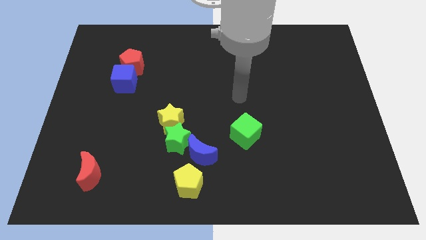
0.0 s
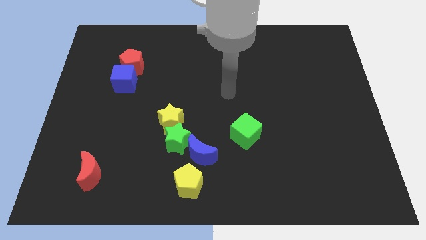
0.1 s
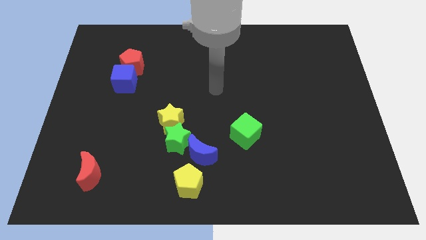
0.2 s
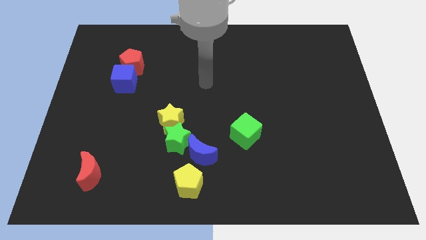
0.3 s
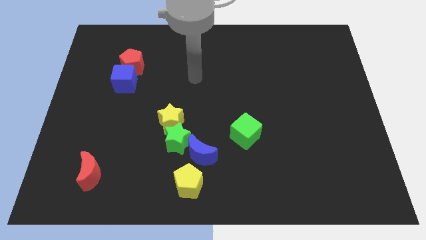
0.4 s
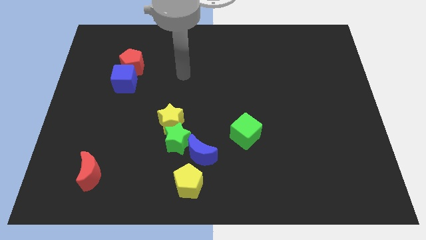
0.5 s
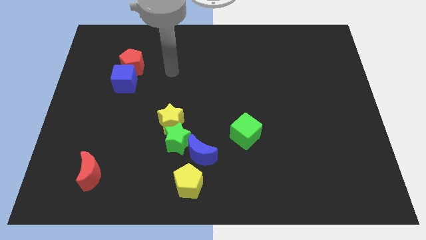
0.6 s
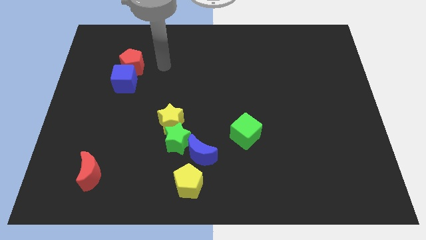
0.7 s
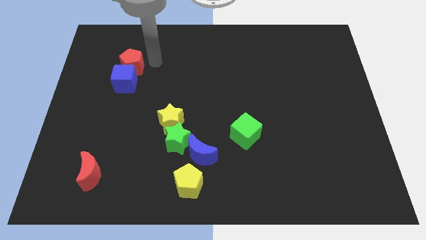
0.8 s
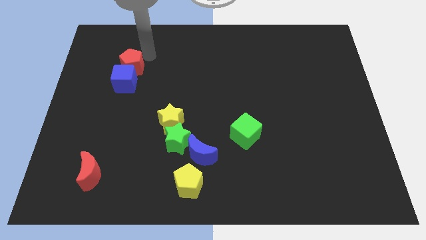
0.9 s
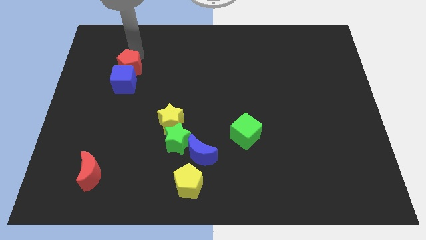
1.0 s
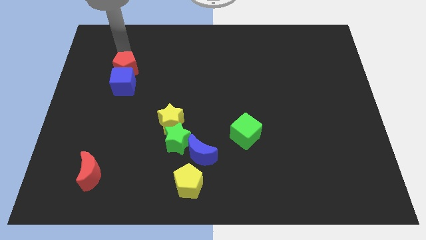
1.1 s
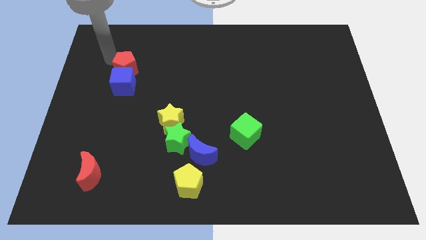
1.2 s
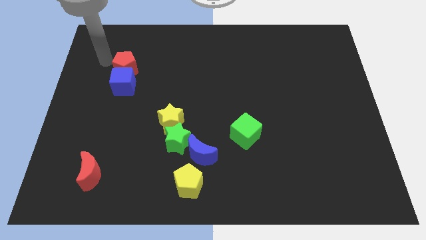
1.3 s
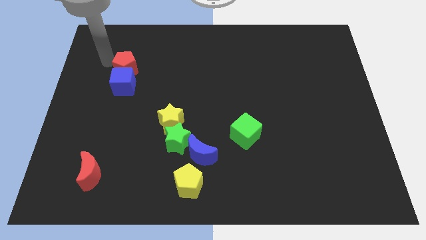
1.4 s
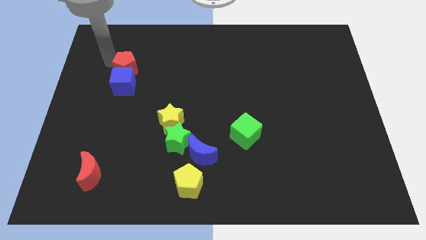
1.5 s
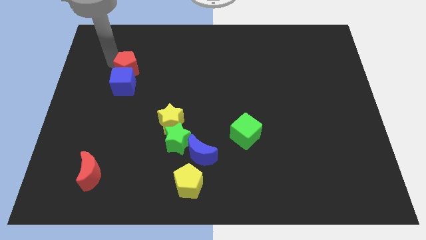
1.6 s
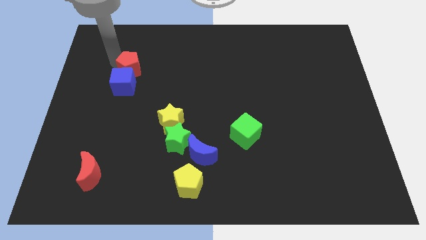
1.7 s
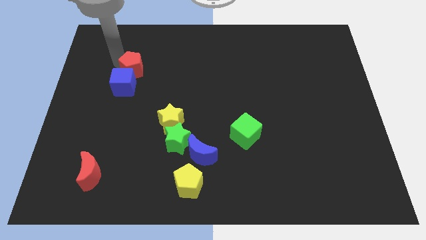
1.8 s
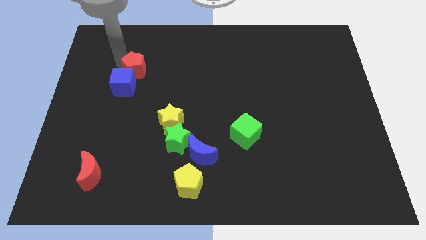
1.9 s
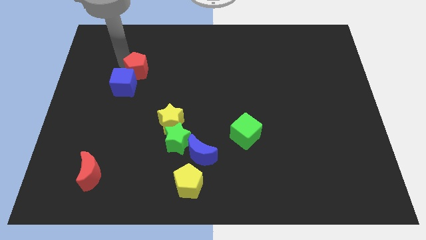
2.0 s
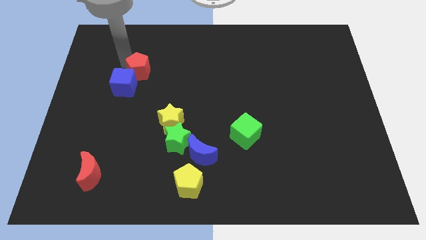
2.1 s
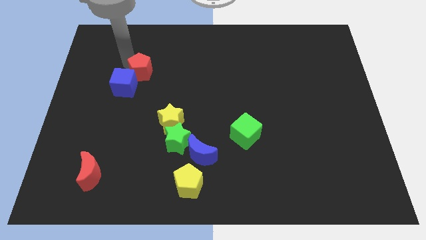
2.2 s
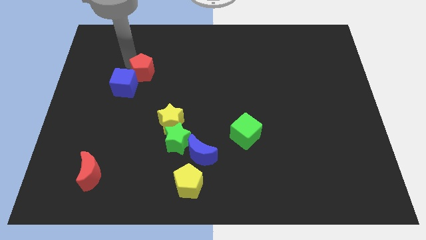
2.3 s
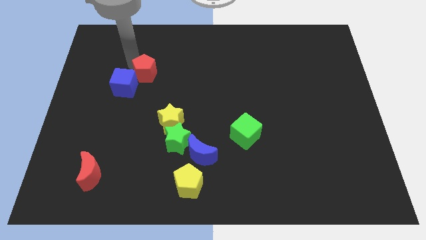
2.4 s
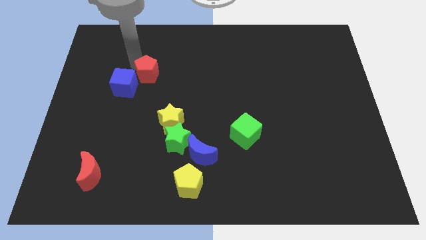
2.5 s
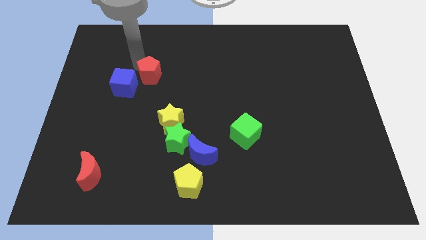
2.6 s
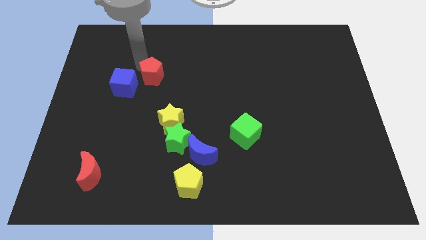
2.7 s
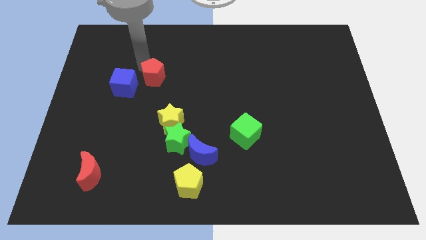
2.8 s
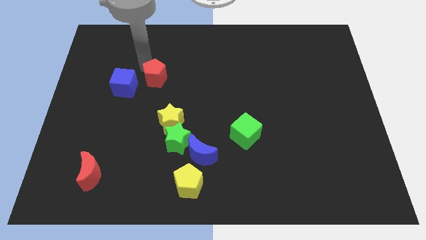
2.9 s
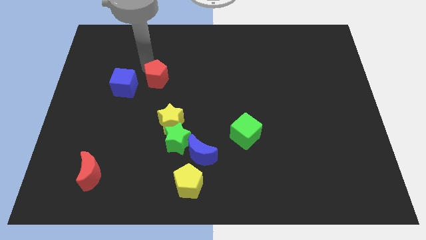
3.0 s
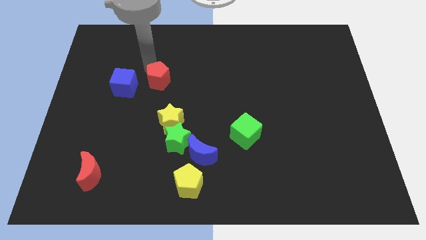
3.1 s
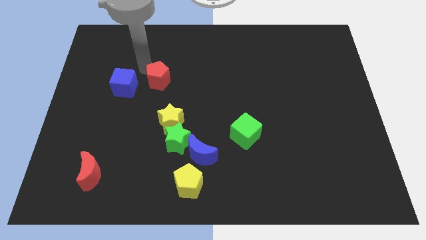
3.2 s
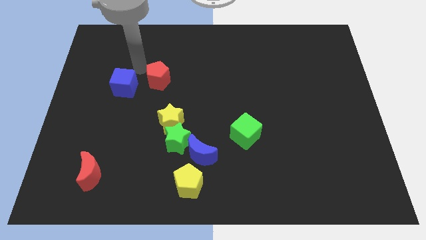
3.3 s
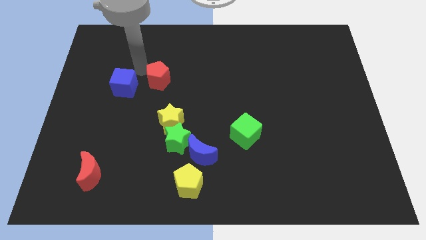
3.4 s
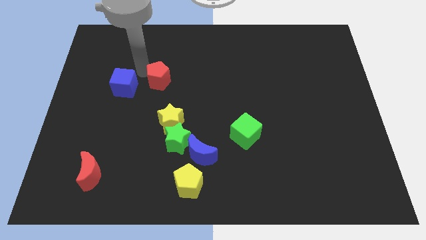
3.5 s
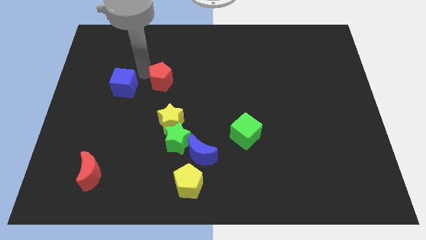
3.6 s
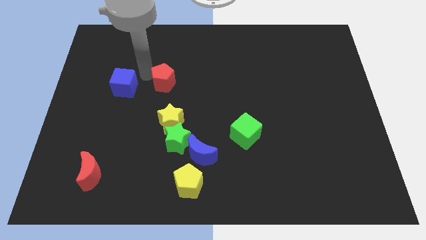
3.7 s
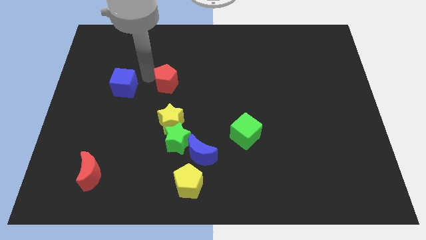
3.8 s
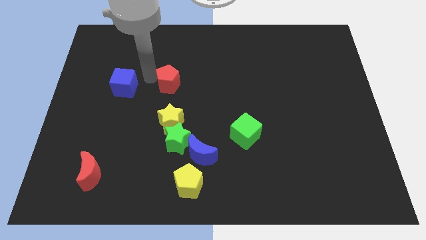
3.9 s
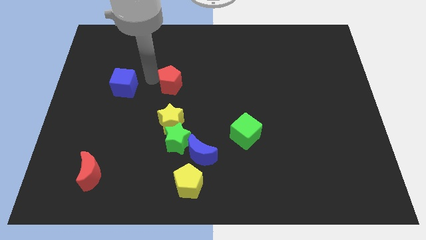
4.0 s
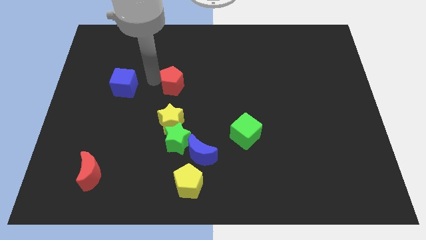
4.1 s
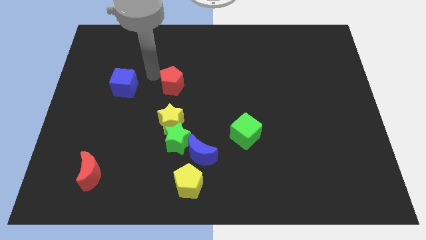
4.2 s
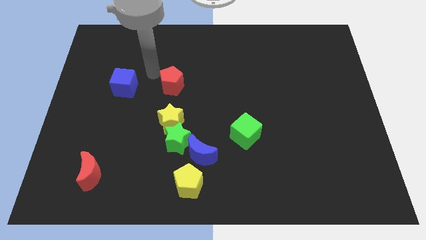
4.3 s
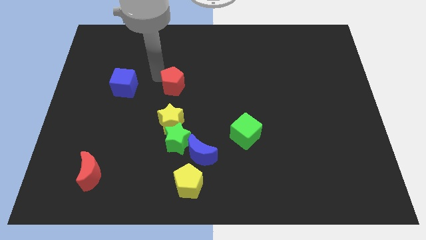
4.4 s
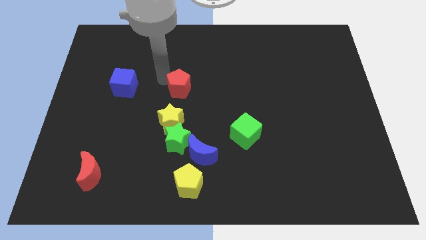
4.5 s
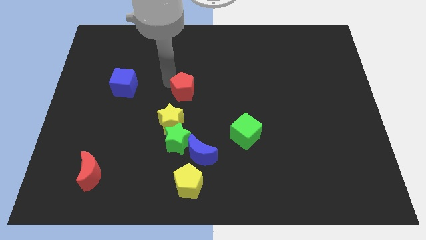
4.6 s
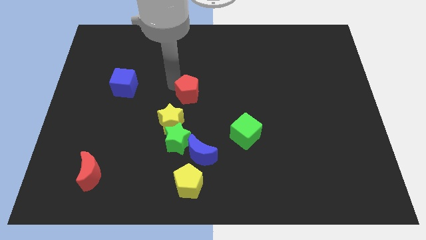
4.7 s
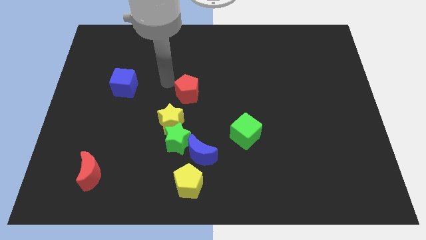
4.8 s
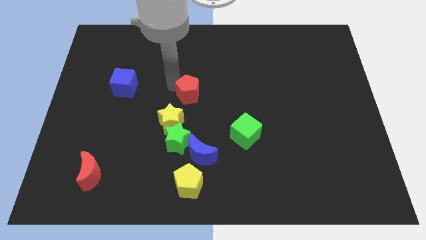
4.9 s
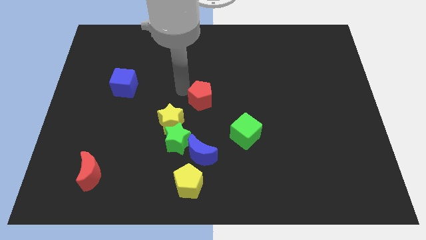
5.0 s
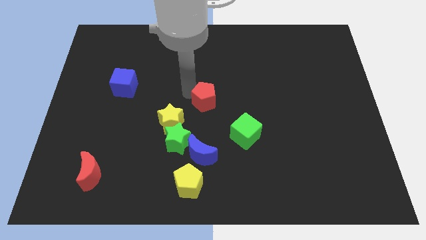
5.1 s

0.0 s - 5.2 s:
slide the red pentagon down and then right

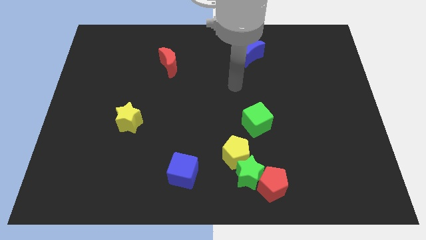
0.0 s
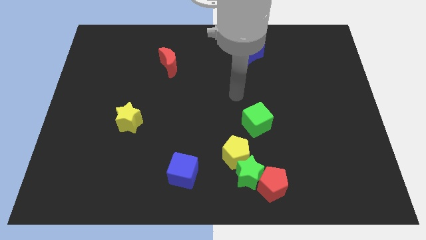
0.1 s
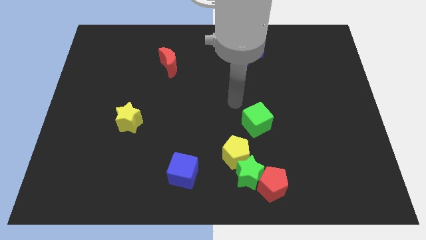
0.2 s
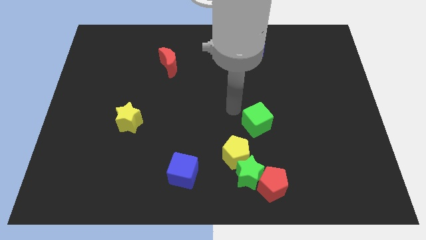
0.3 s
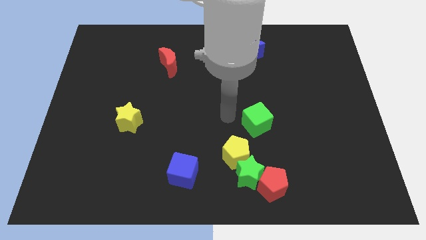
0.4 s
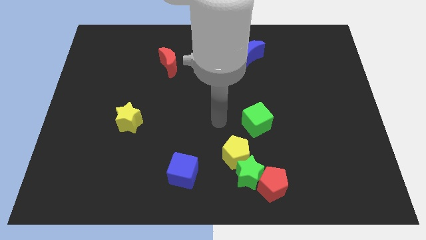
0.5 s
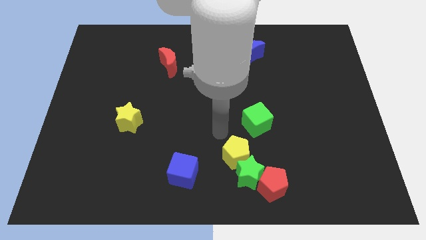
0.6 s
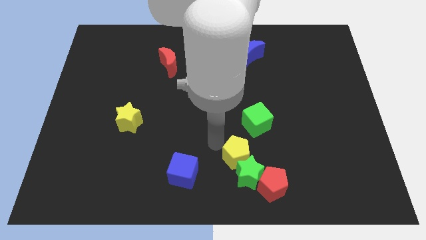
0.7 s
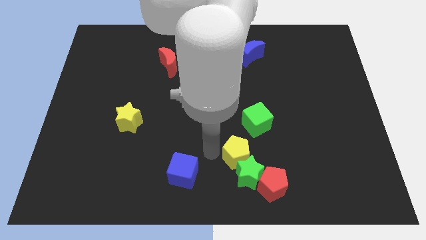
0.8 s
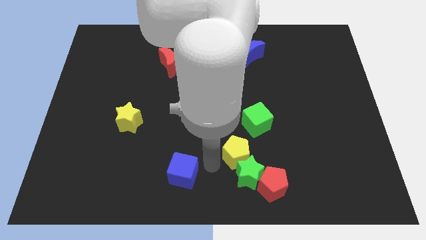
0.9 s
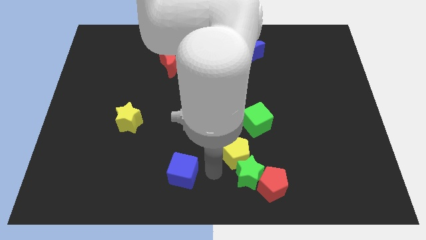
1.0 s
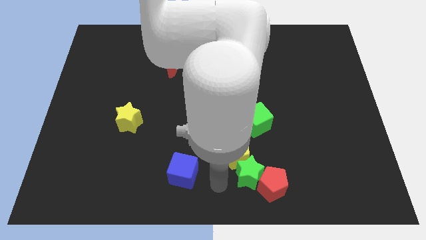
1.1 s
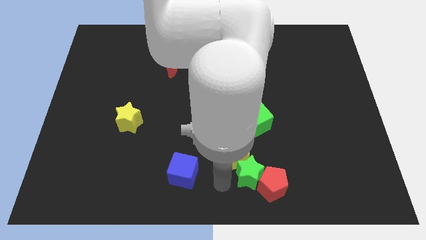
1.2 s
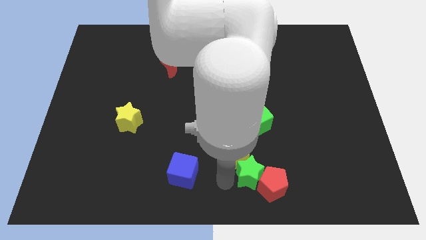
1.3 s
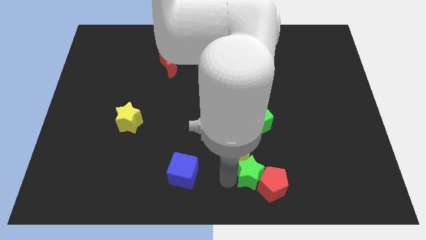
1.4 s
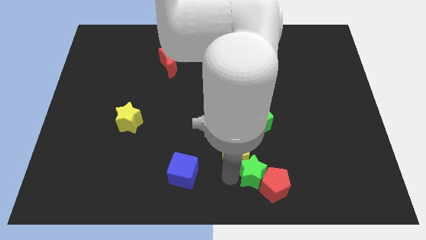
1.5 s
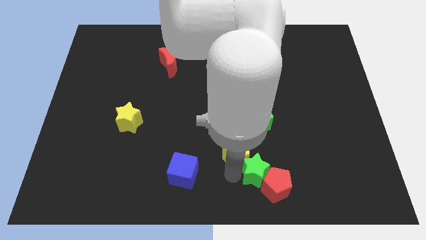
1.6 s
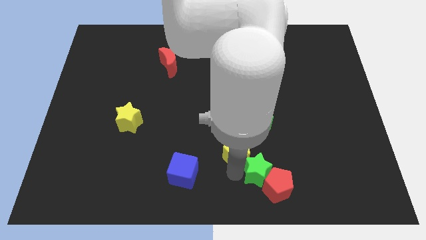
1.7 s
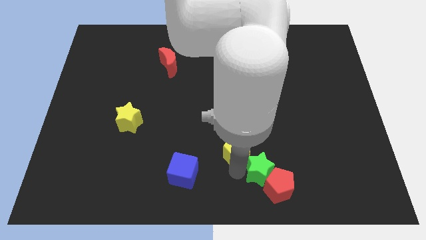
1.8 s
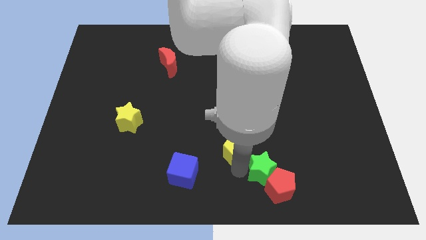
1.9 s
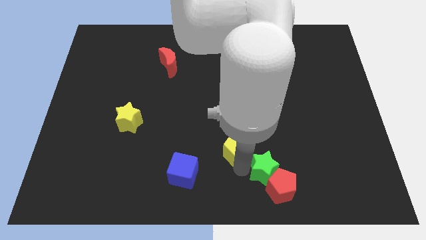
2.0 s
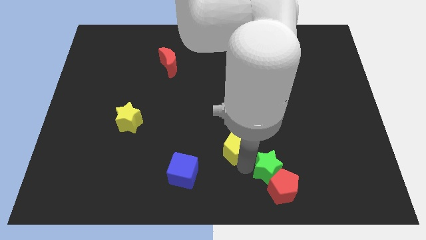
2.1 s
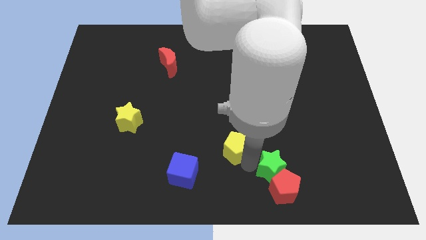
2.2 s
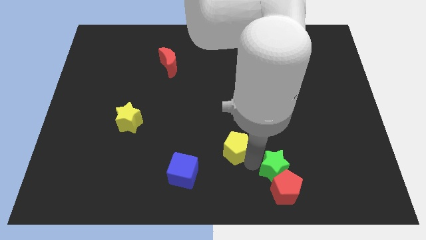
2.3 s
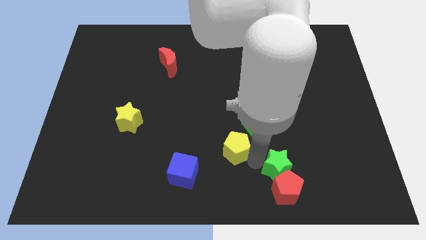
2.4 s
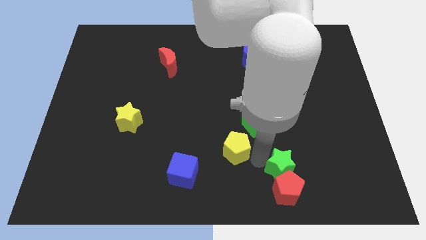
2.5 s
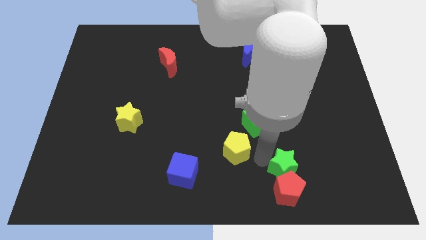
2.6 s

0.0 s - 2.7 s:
move the green star a bit right

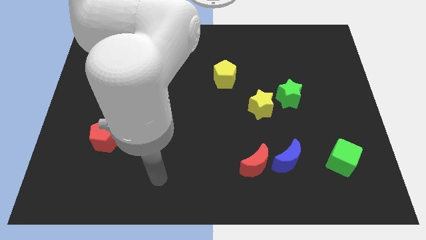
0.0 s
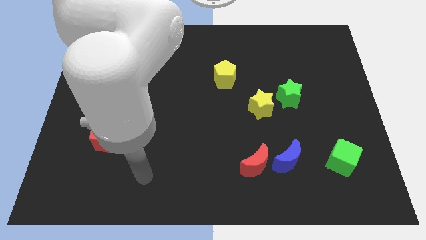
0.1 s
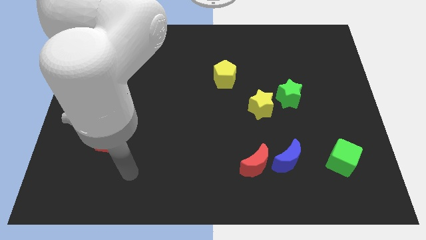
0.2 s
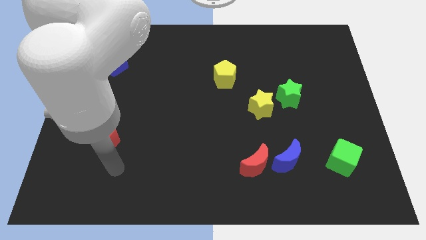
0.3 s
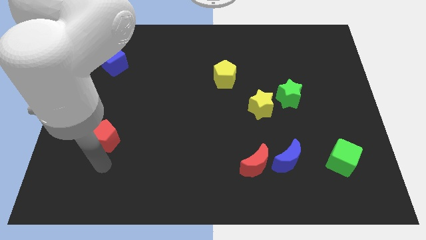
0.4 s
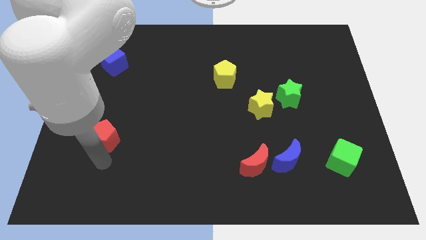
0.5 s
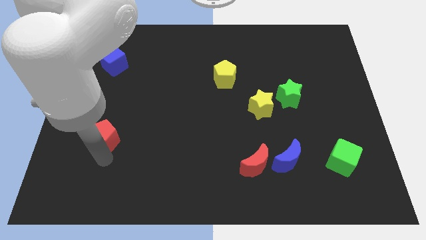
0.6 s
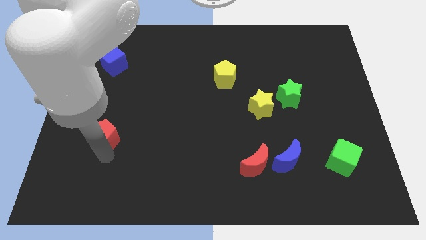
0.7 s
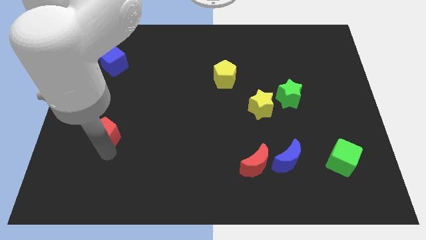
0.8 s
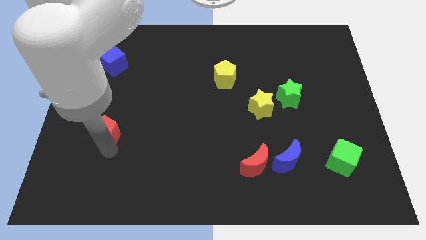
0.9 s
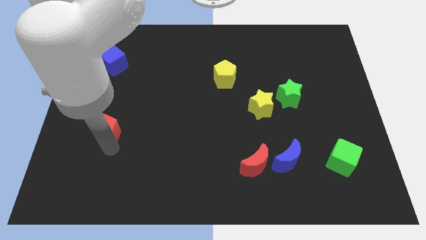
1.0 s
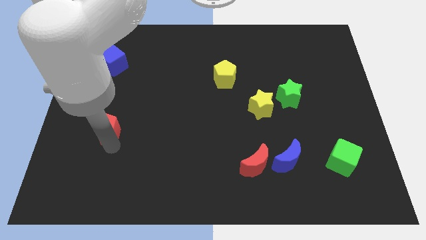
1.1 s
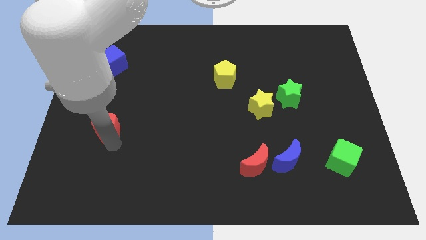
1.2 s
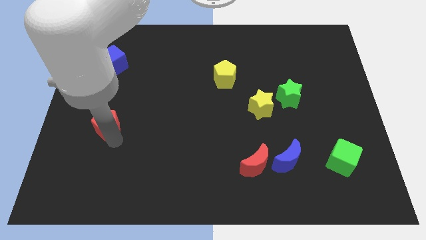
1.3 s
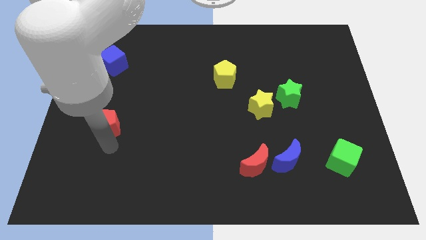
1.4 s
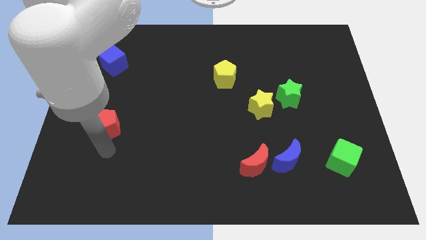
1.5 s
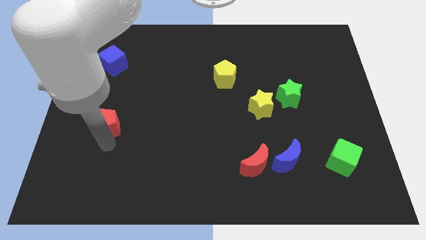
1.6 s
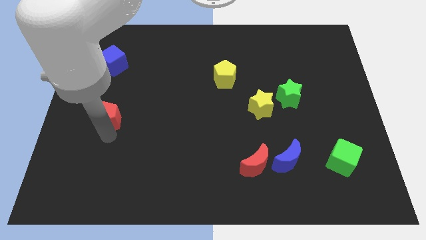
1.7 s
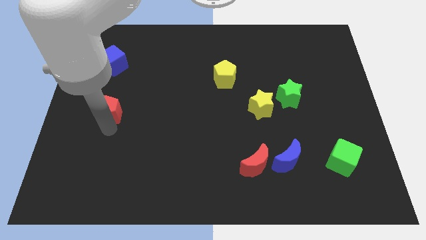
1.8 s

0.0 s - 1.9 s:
slightly push the red pentagon up
